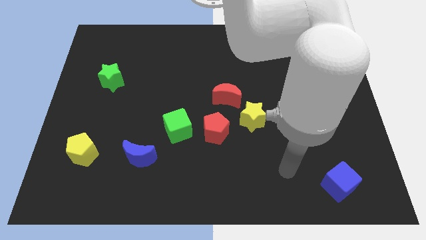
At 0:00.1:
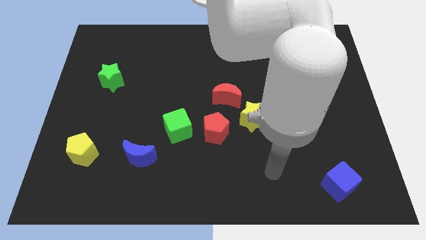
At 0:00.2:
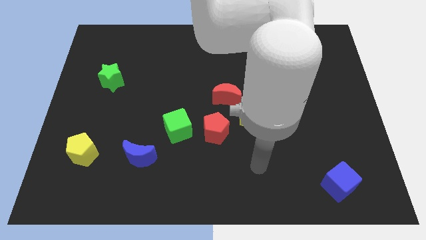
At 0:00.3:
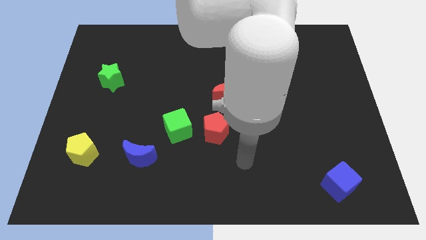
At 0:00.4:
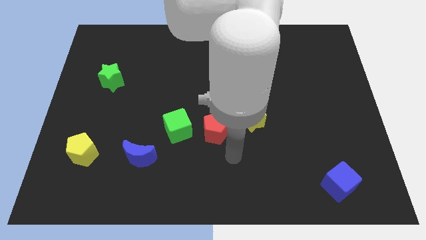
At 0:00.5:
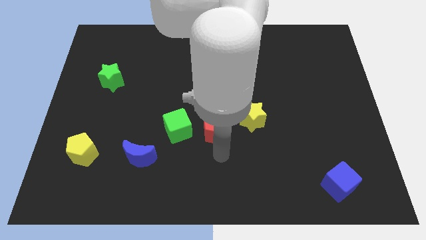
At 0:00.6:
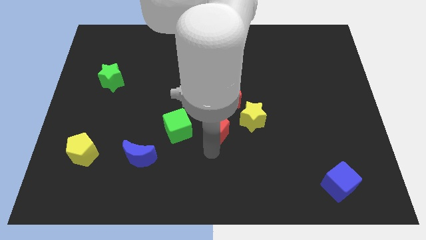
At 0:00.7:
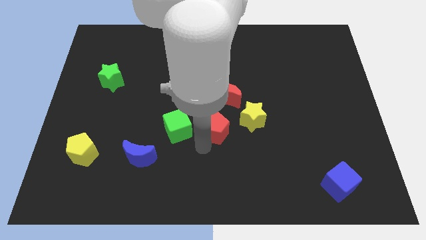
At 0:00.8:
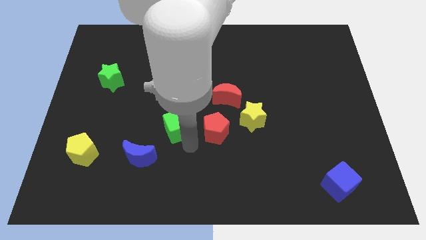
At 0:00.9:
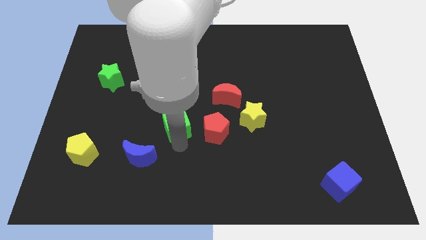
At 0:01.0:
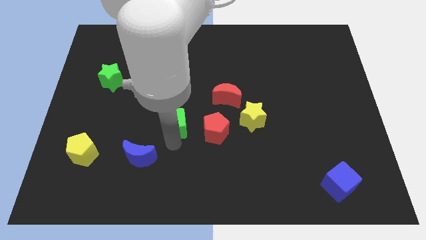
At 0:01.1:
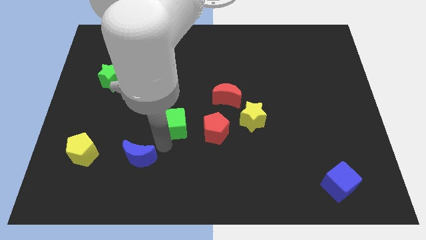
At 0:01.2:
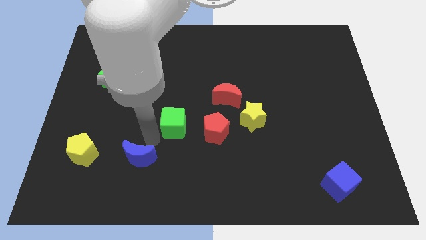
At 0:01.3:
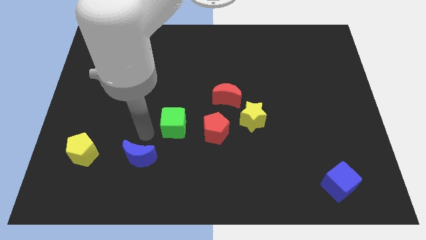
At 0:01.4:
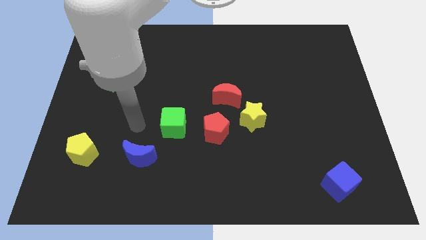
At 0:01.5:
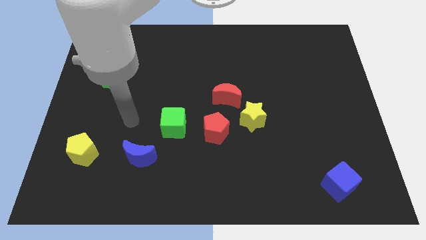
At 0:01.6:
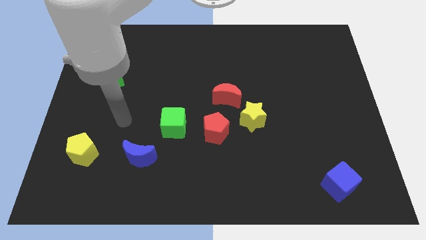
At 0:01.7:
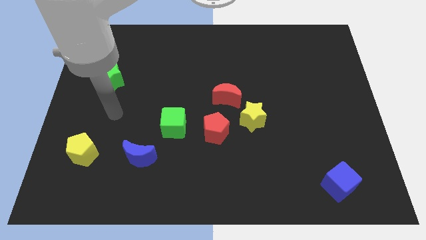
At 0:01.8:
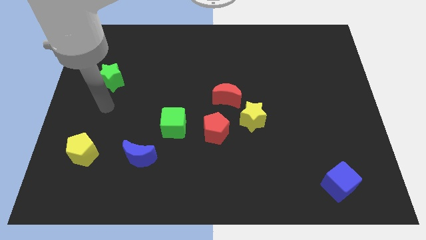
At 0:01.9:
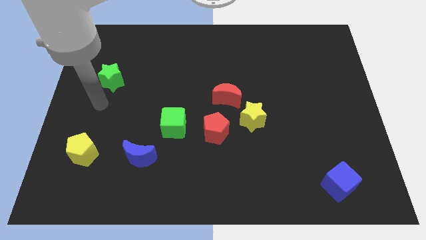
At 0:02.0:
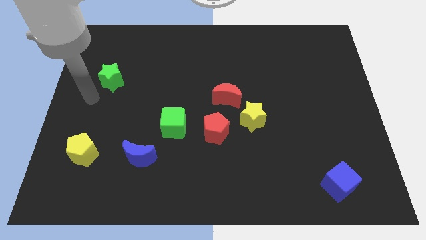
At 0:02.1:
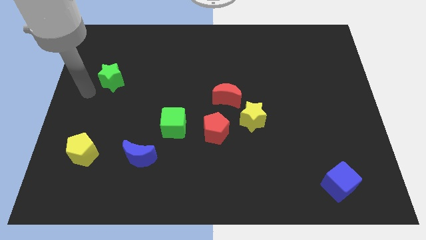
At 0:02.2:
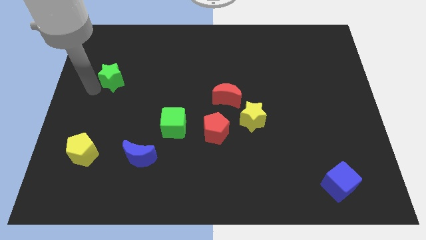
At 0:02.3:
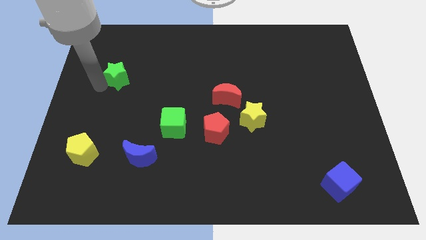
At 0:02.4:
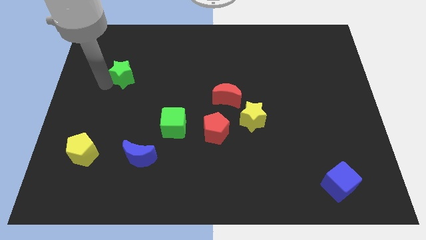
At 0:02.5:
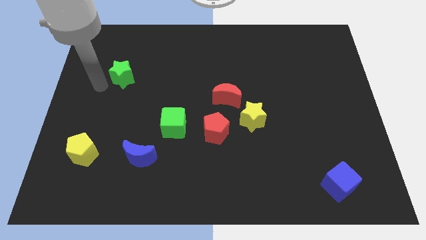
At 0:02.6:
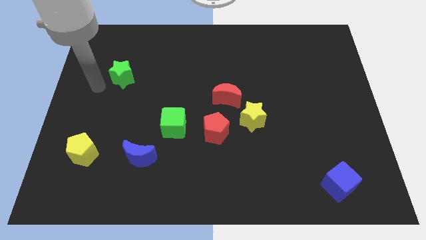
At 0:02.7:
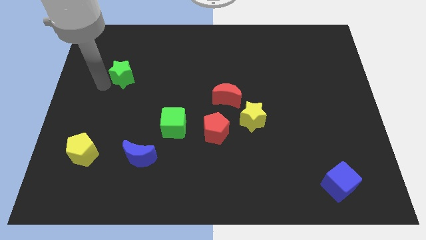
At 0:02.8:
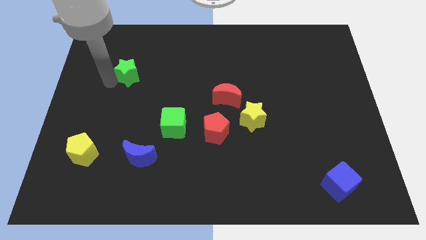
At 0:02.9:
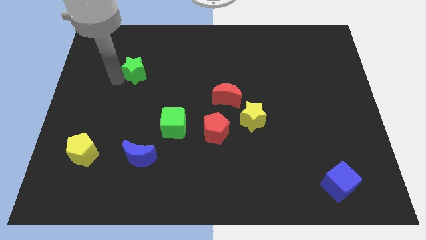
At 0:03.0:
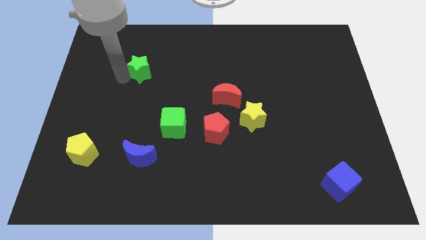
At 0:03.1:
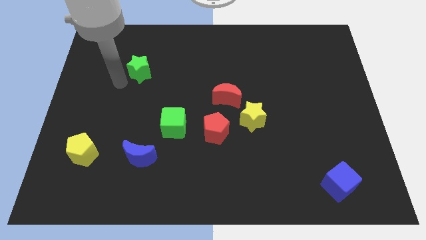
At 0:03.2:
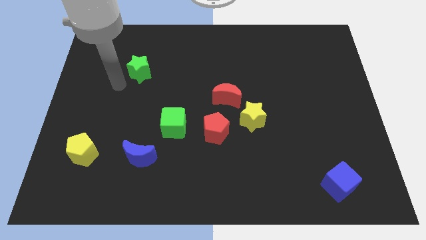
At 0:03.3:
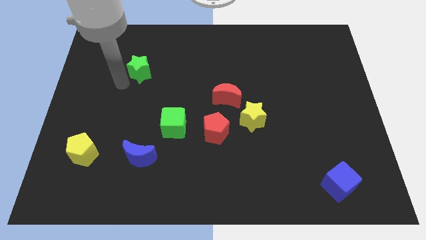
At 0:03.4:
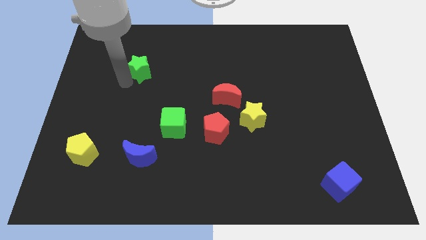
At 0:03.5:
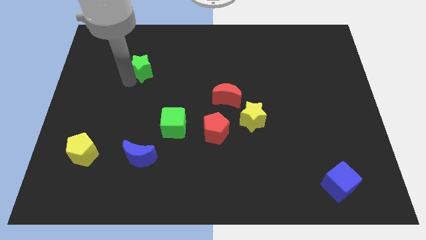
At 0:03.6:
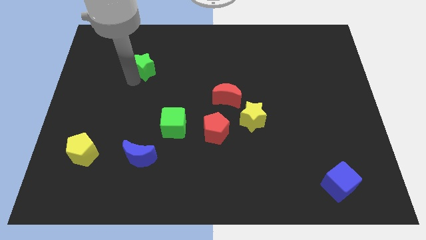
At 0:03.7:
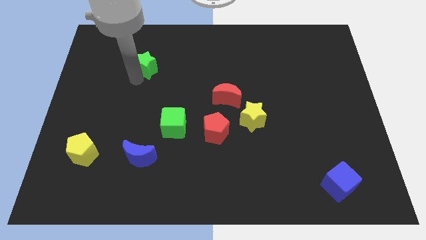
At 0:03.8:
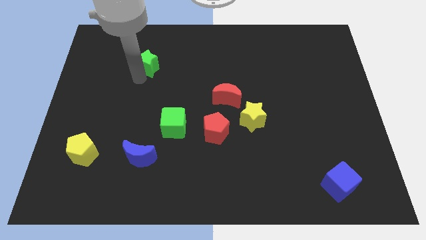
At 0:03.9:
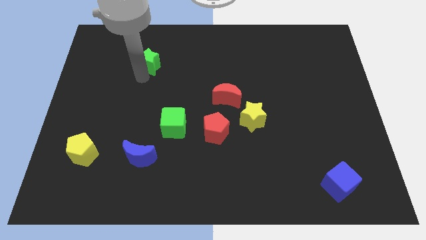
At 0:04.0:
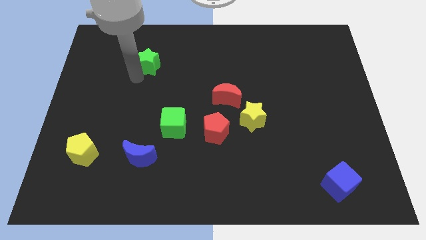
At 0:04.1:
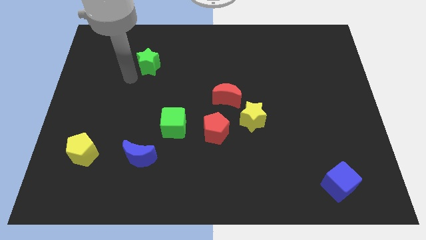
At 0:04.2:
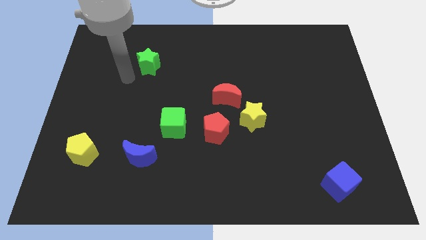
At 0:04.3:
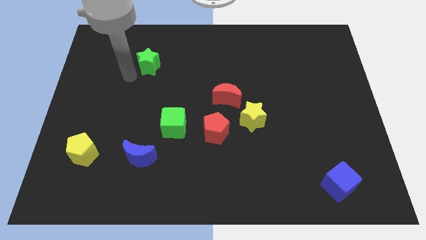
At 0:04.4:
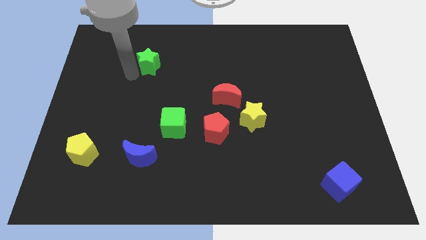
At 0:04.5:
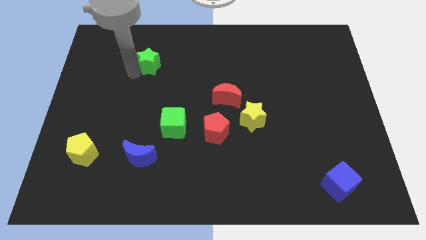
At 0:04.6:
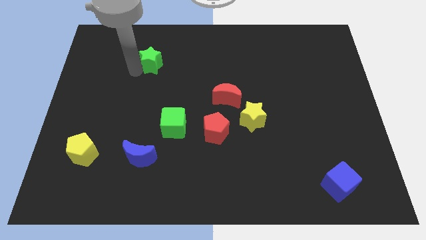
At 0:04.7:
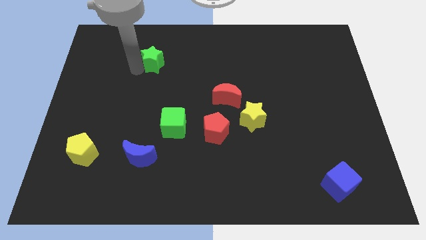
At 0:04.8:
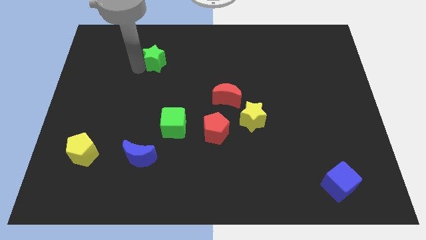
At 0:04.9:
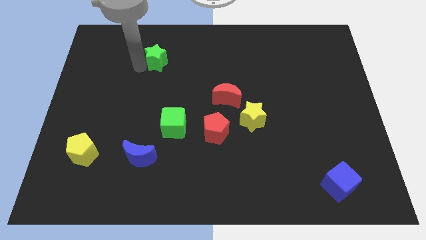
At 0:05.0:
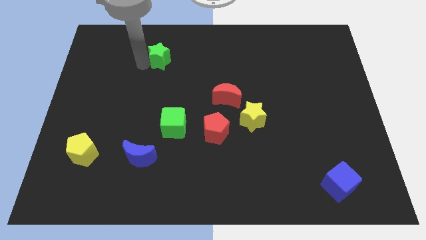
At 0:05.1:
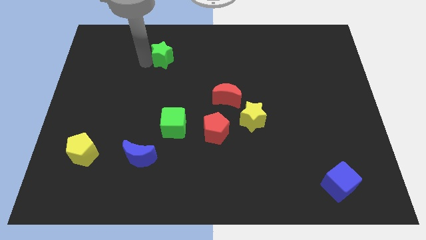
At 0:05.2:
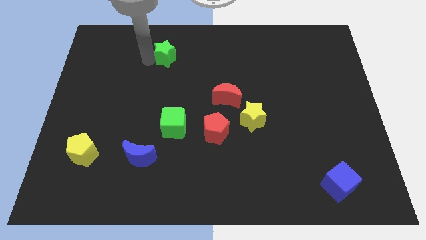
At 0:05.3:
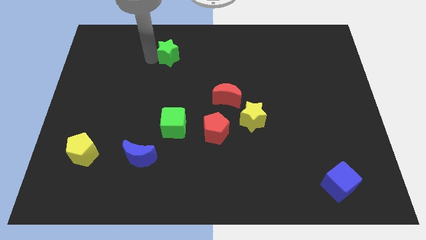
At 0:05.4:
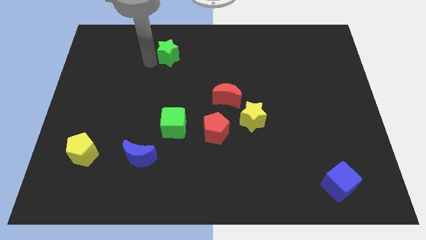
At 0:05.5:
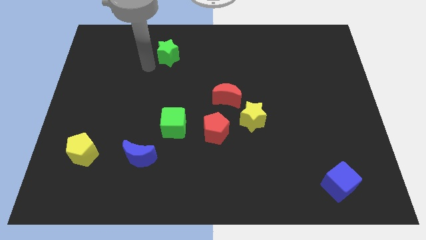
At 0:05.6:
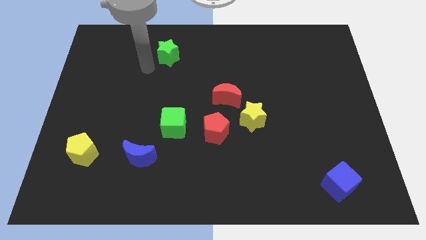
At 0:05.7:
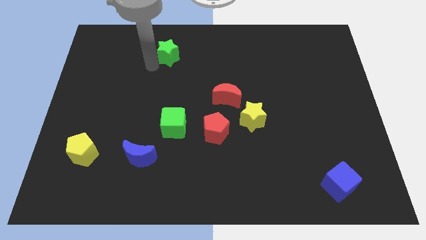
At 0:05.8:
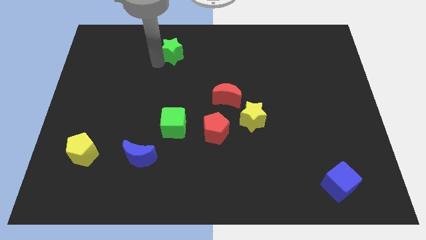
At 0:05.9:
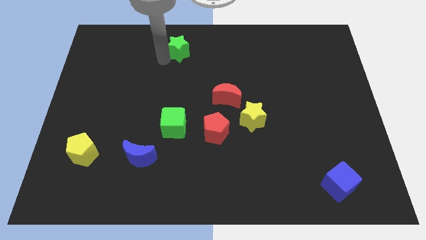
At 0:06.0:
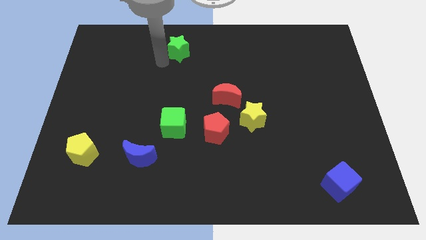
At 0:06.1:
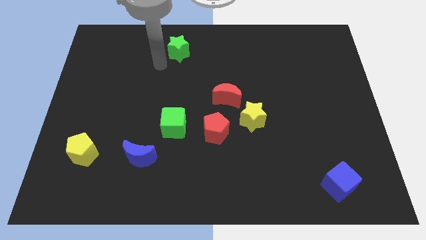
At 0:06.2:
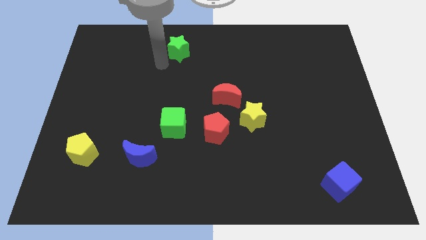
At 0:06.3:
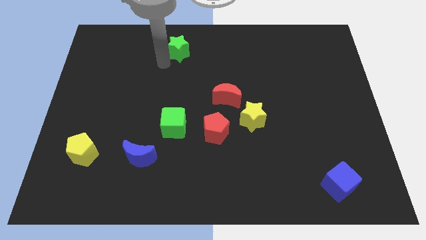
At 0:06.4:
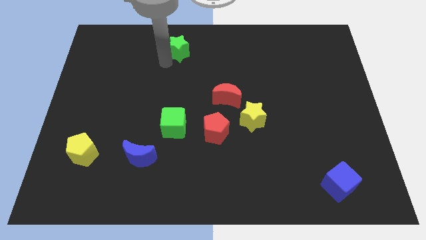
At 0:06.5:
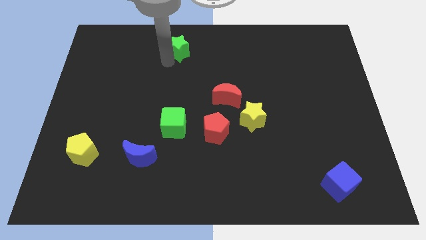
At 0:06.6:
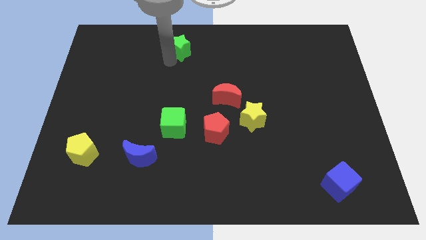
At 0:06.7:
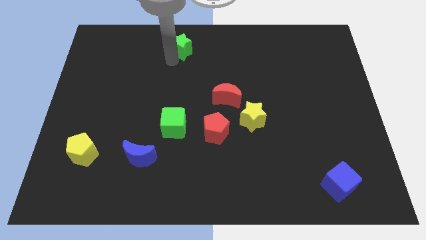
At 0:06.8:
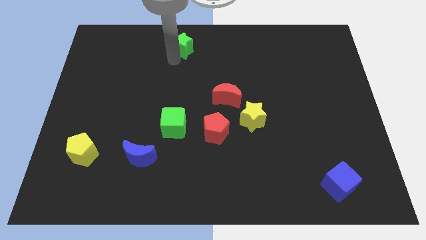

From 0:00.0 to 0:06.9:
put the green star to the towards your base
